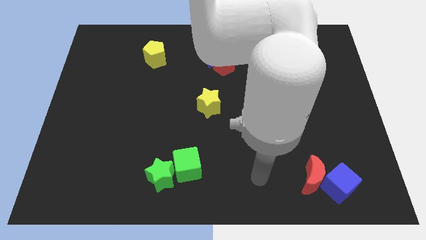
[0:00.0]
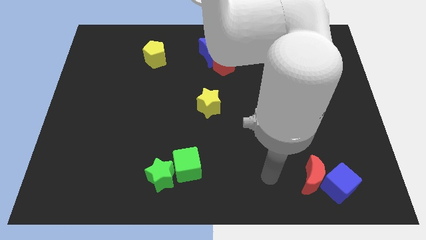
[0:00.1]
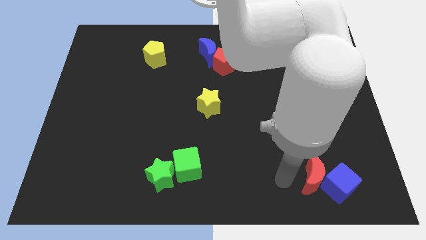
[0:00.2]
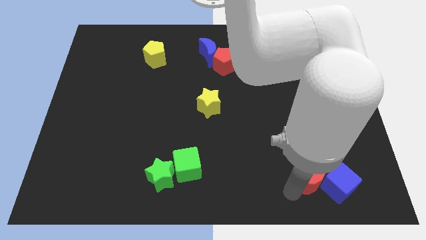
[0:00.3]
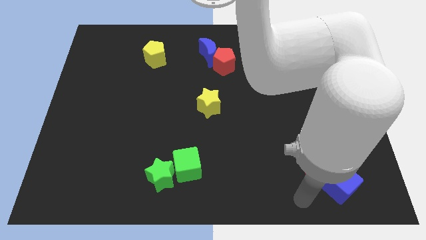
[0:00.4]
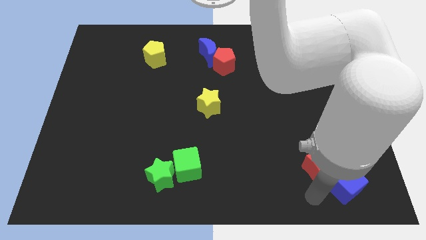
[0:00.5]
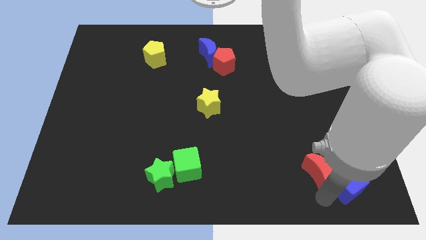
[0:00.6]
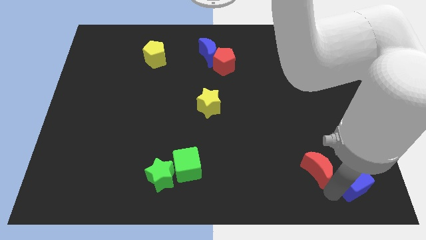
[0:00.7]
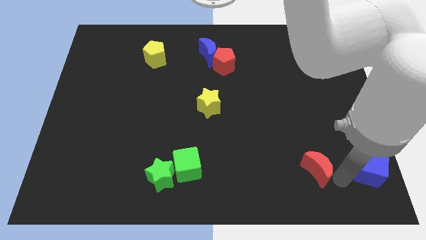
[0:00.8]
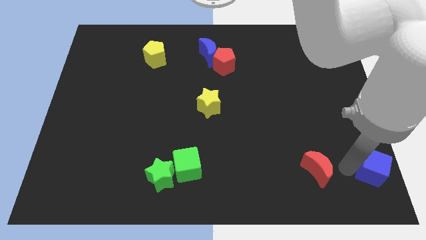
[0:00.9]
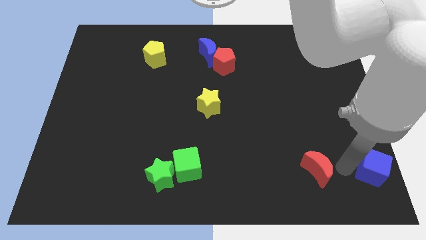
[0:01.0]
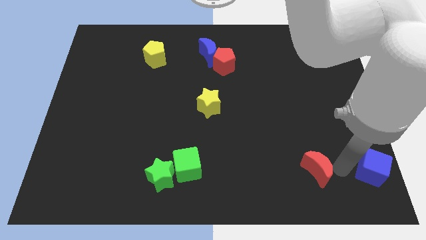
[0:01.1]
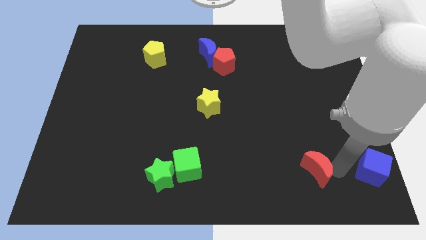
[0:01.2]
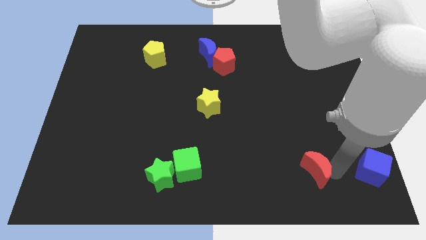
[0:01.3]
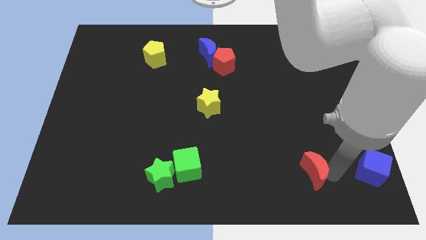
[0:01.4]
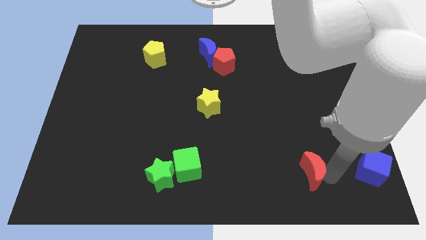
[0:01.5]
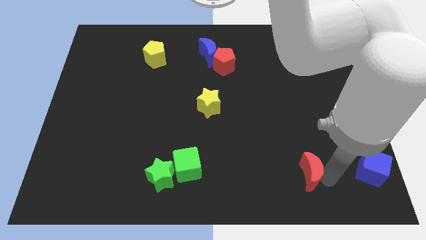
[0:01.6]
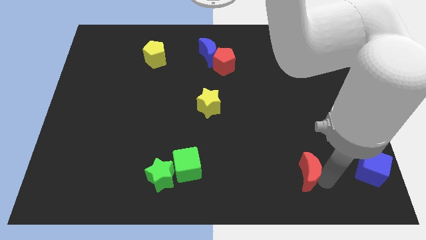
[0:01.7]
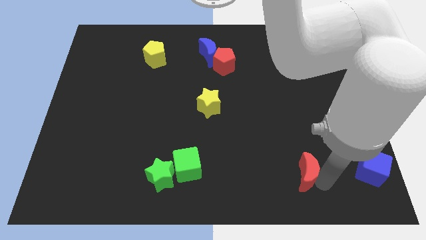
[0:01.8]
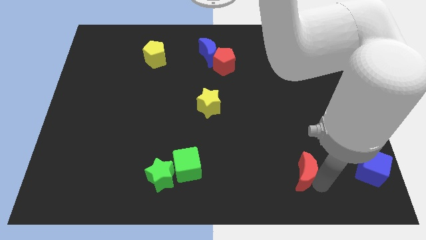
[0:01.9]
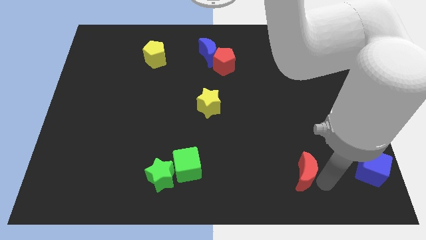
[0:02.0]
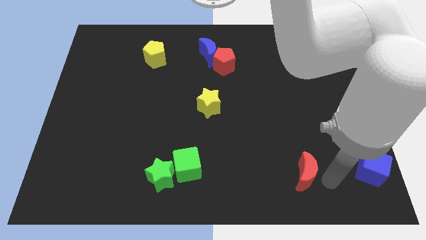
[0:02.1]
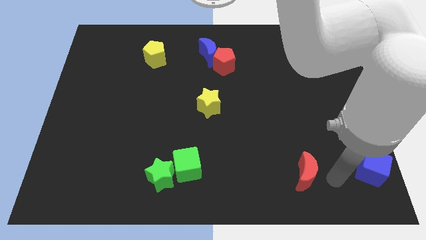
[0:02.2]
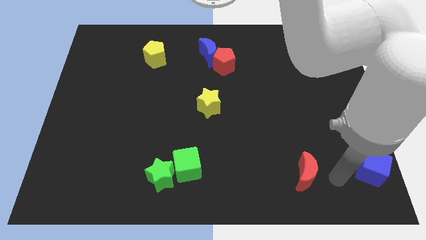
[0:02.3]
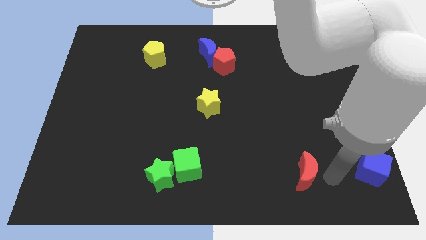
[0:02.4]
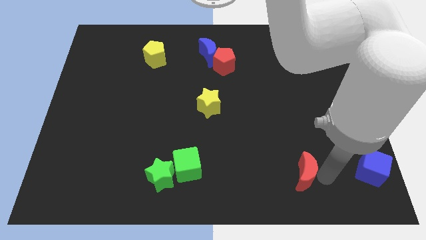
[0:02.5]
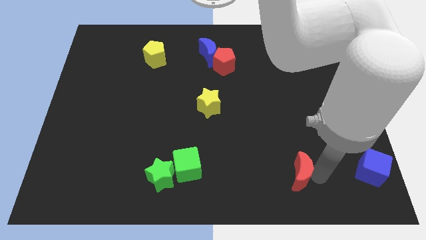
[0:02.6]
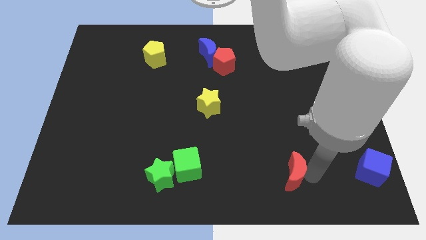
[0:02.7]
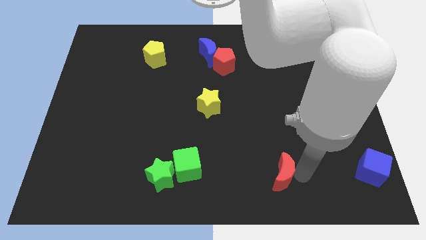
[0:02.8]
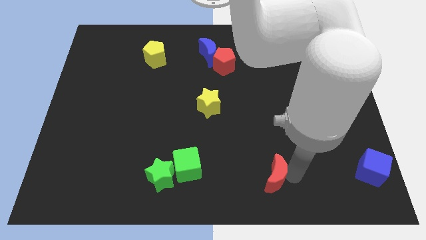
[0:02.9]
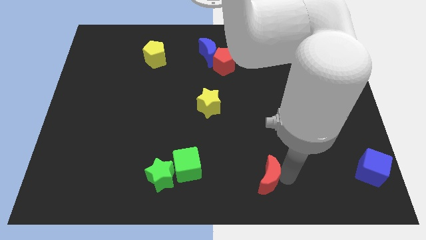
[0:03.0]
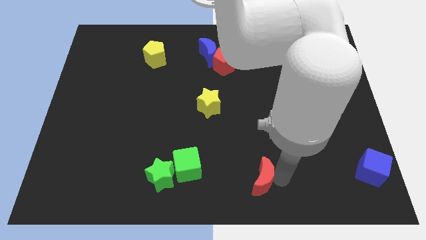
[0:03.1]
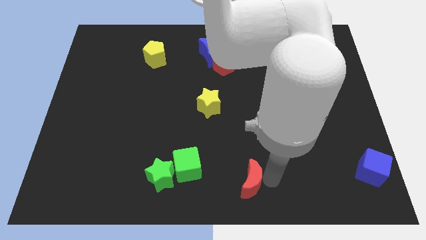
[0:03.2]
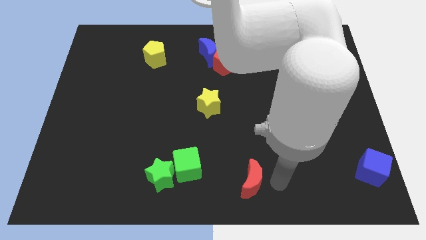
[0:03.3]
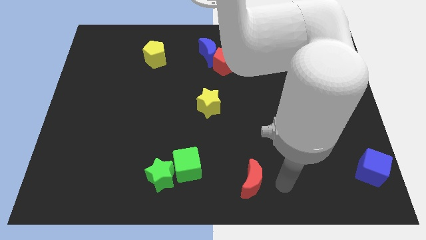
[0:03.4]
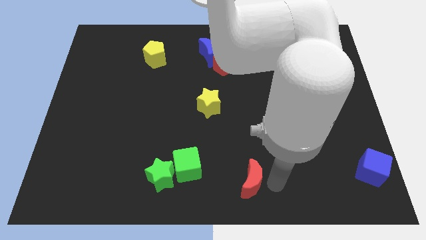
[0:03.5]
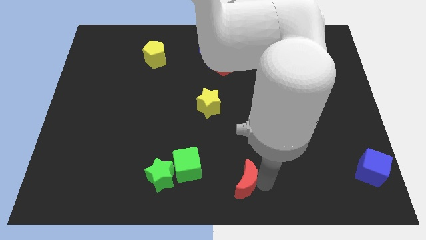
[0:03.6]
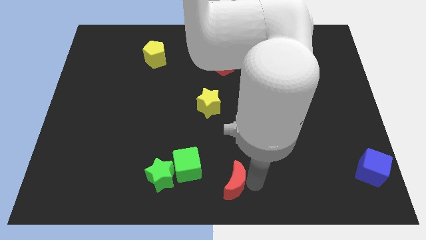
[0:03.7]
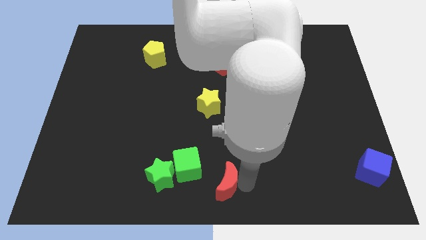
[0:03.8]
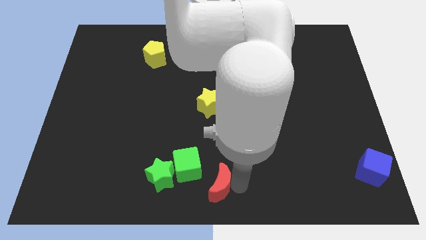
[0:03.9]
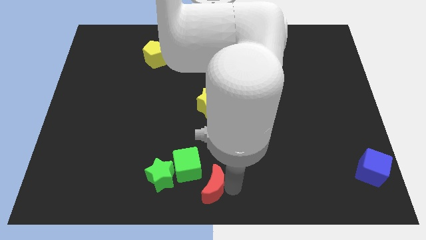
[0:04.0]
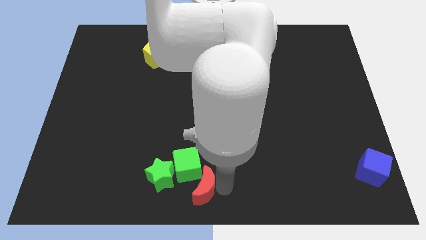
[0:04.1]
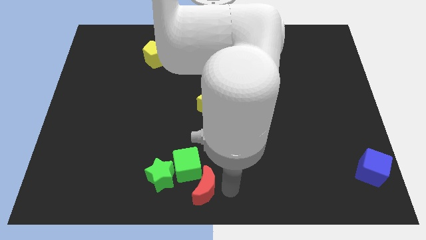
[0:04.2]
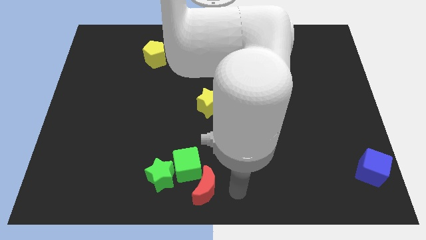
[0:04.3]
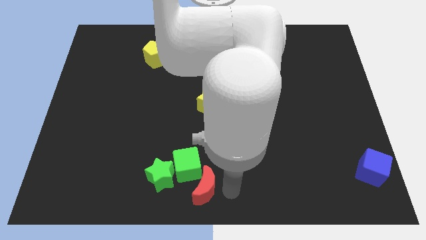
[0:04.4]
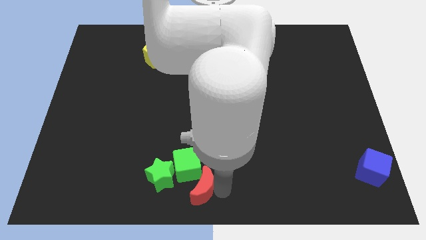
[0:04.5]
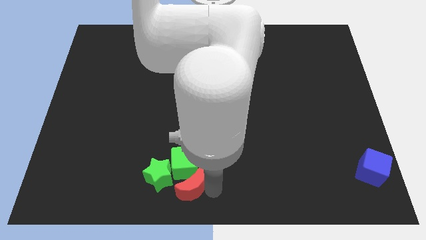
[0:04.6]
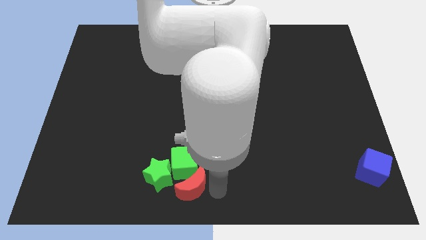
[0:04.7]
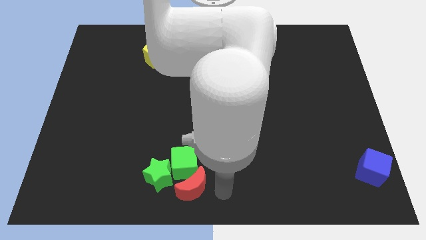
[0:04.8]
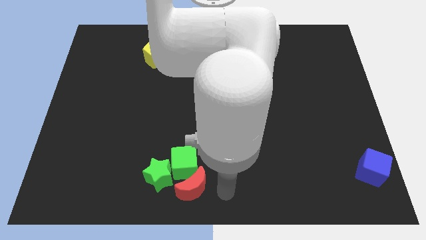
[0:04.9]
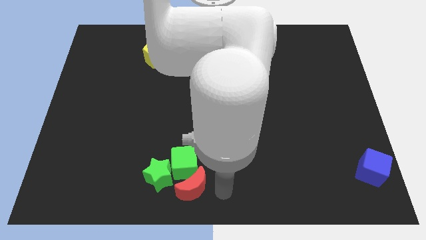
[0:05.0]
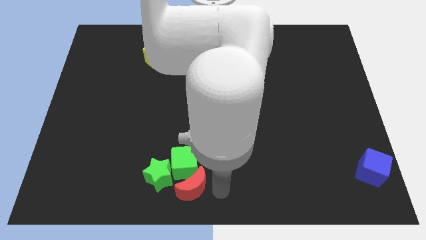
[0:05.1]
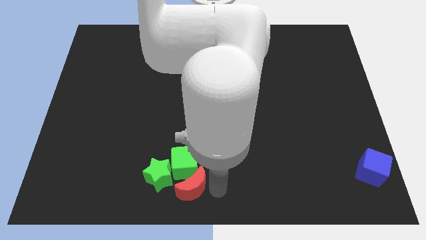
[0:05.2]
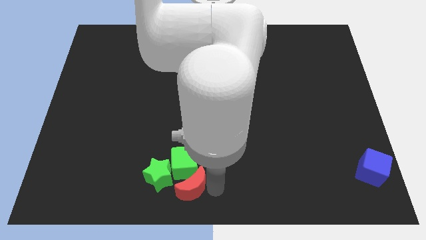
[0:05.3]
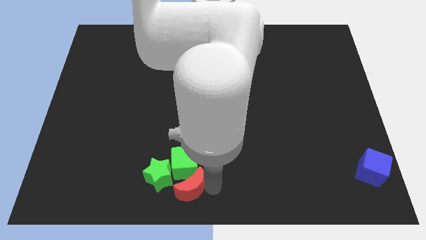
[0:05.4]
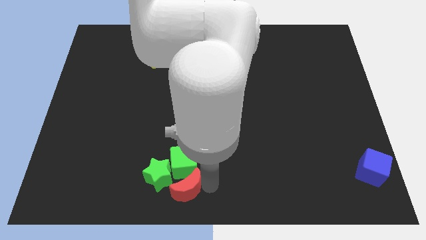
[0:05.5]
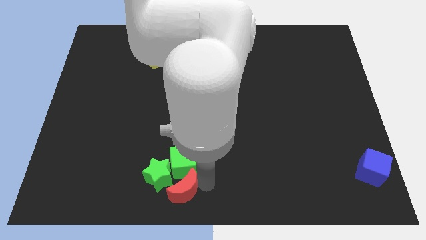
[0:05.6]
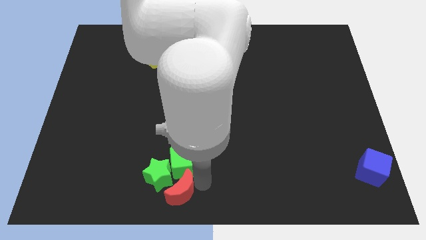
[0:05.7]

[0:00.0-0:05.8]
push the red moon next to the green star

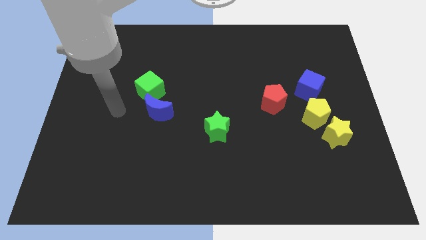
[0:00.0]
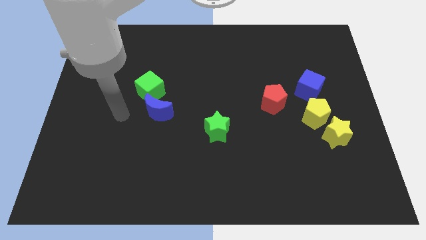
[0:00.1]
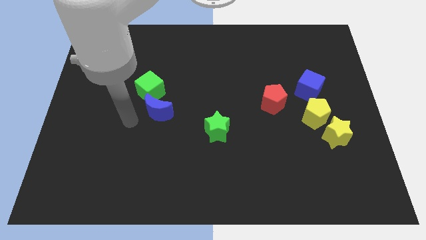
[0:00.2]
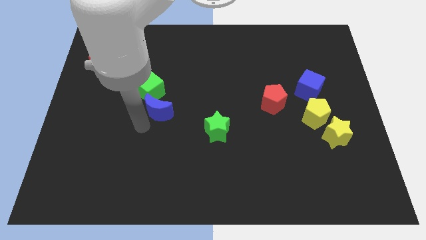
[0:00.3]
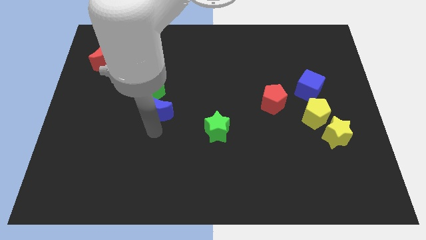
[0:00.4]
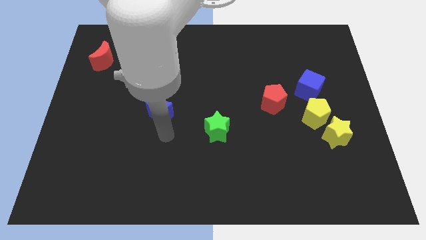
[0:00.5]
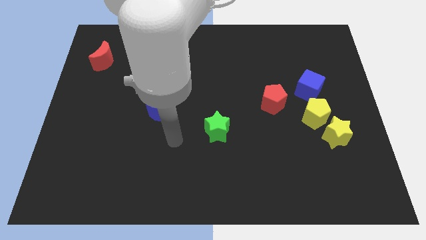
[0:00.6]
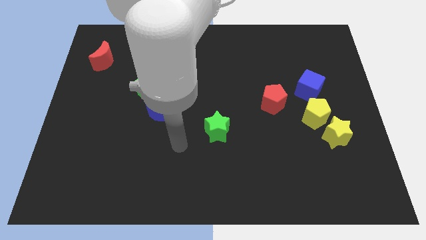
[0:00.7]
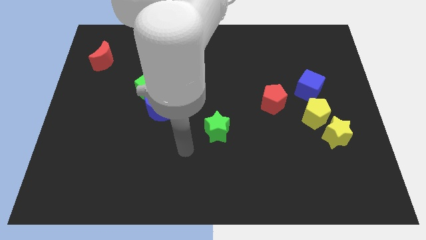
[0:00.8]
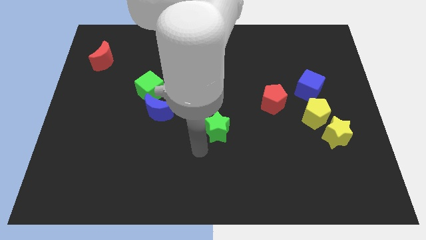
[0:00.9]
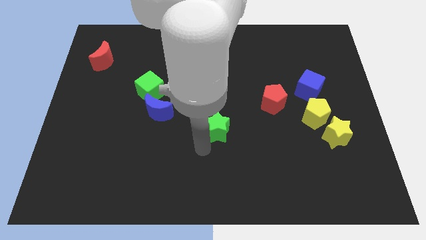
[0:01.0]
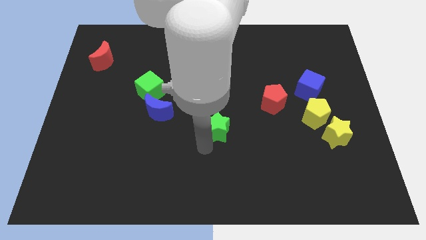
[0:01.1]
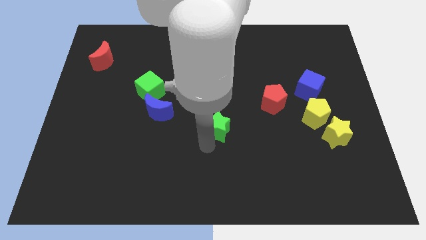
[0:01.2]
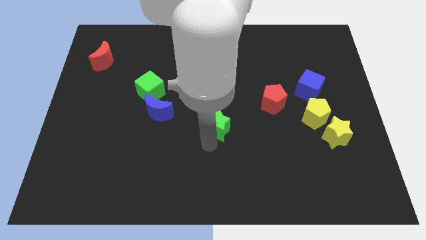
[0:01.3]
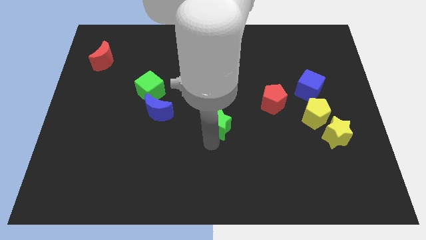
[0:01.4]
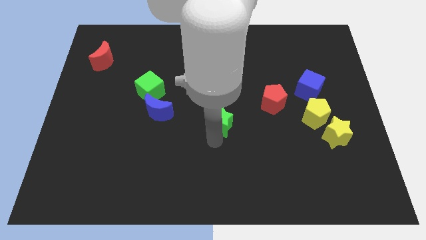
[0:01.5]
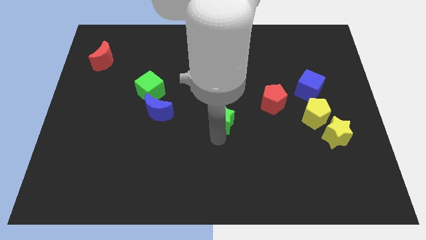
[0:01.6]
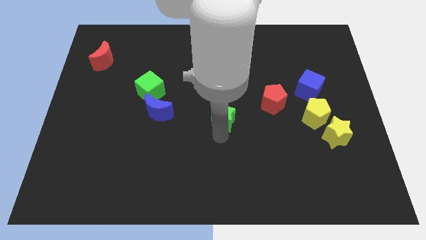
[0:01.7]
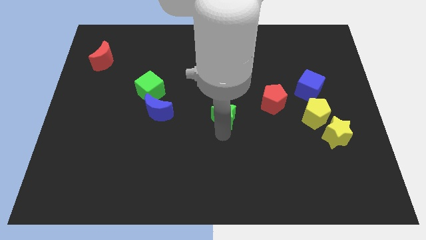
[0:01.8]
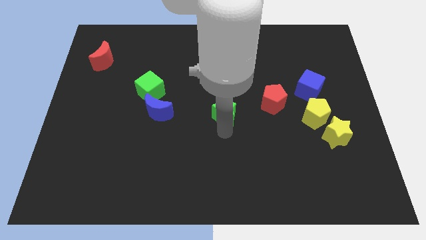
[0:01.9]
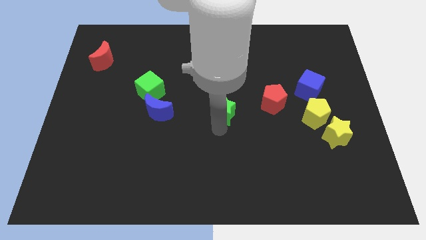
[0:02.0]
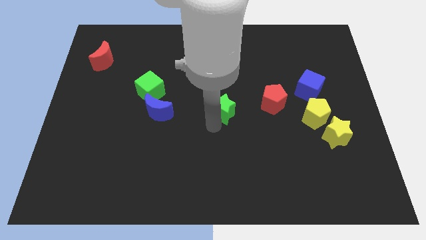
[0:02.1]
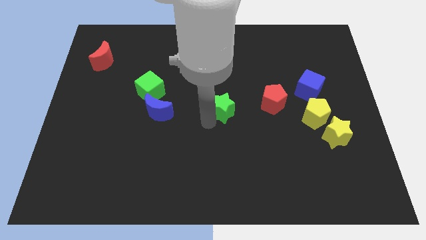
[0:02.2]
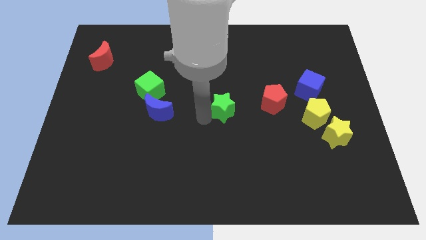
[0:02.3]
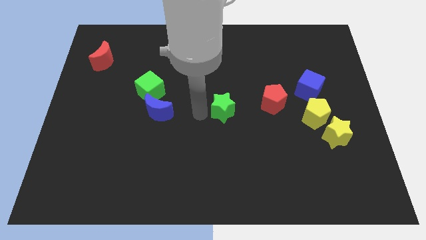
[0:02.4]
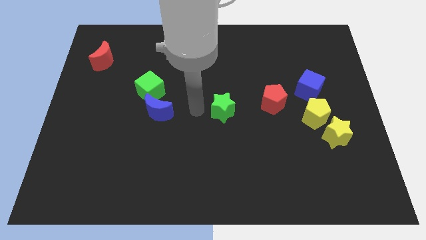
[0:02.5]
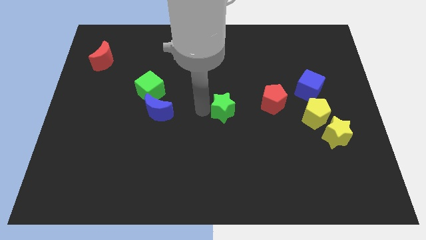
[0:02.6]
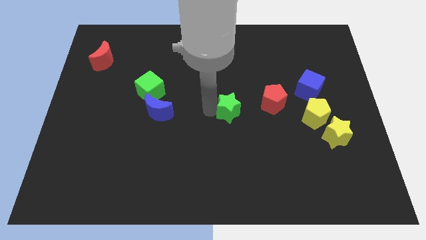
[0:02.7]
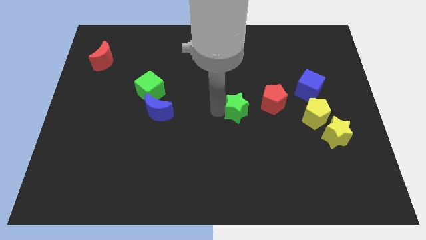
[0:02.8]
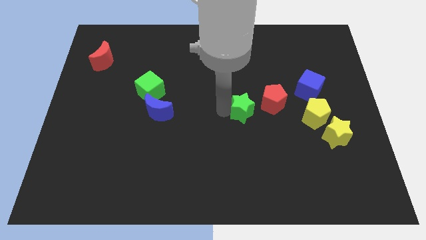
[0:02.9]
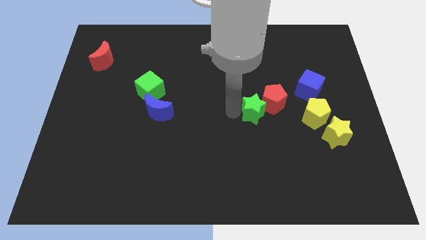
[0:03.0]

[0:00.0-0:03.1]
push the green star to the red pentagon
